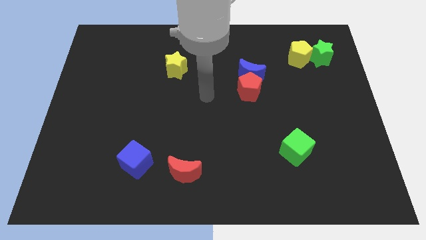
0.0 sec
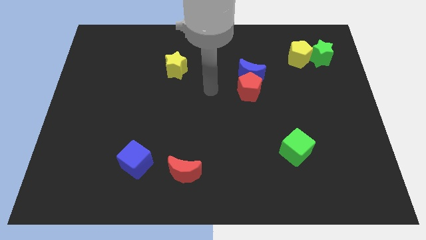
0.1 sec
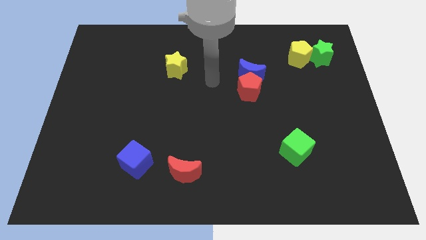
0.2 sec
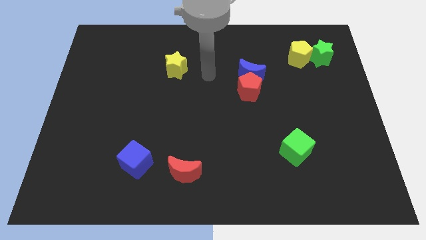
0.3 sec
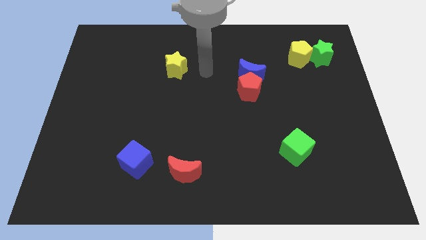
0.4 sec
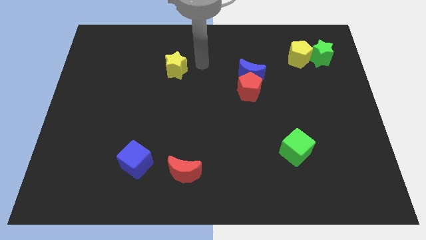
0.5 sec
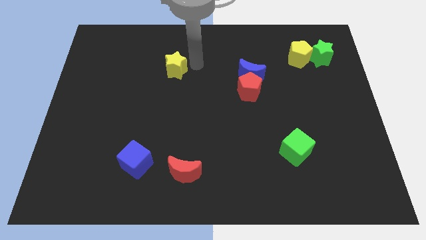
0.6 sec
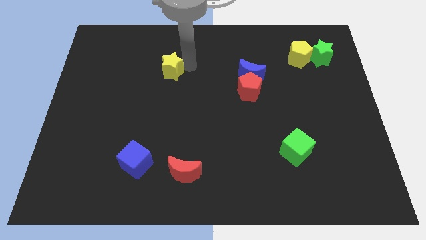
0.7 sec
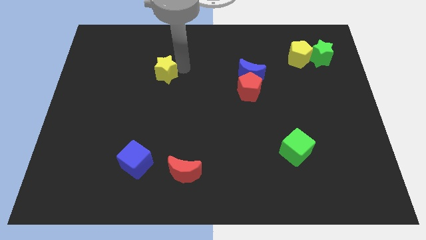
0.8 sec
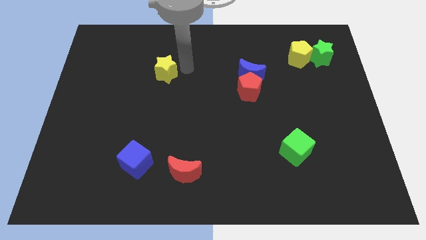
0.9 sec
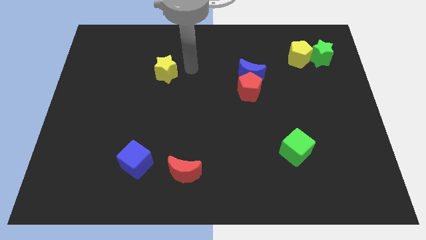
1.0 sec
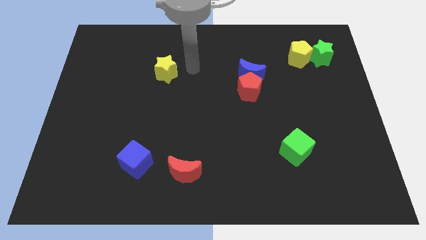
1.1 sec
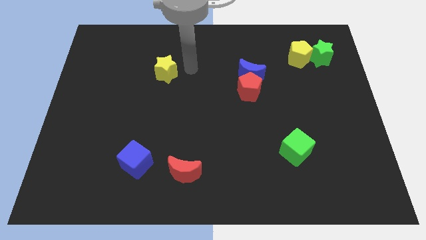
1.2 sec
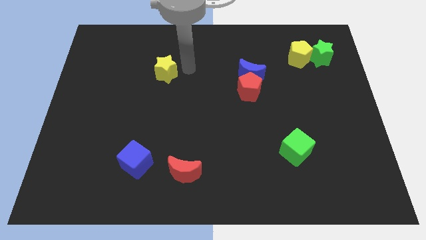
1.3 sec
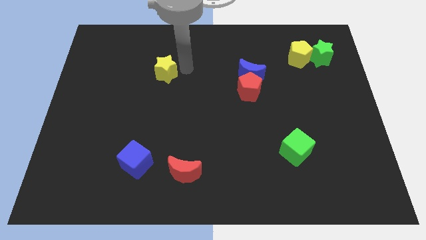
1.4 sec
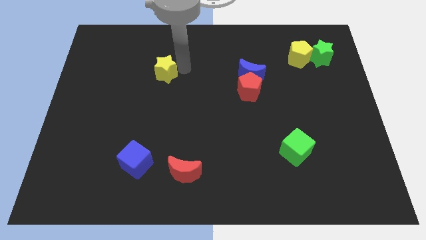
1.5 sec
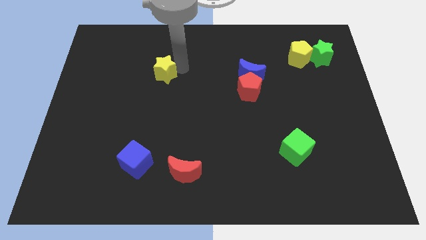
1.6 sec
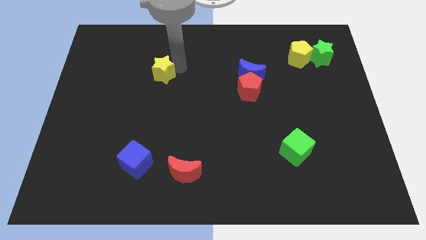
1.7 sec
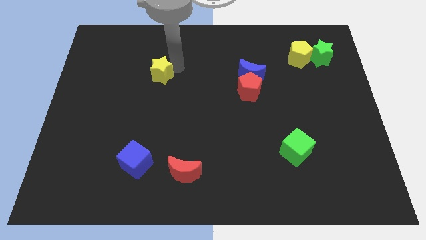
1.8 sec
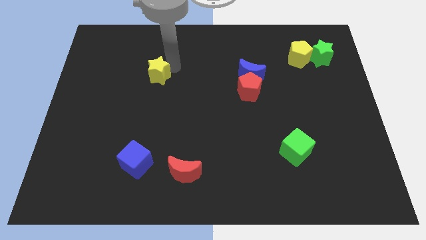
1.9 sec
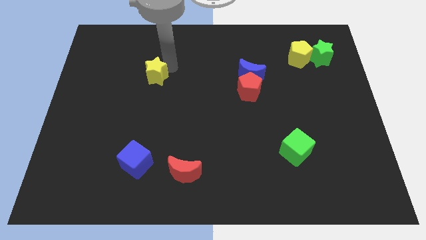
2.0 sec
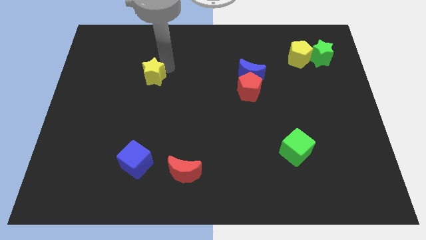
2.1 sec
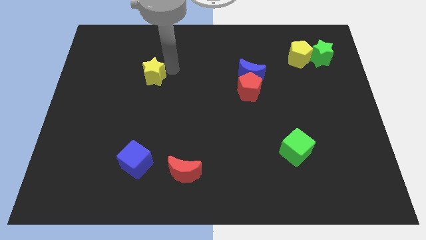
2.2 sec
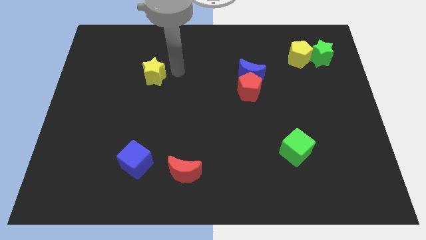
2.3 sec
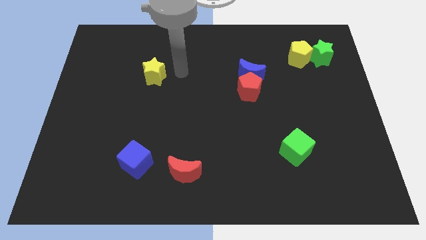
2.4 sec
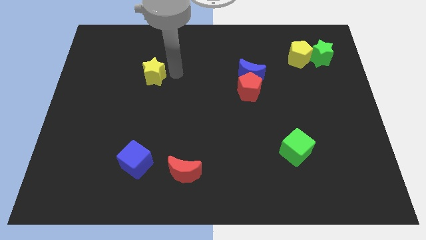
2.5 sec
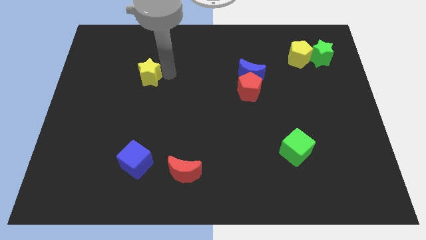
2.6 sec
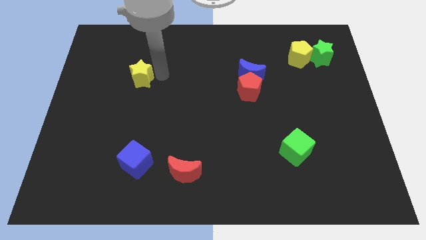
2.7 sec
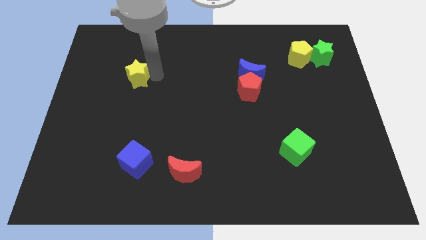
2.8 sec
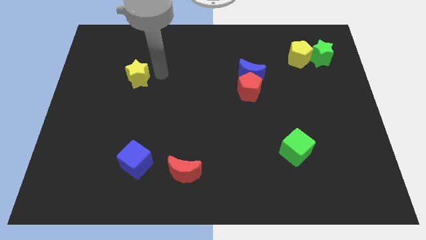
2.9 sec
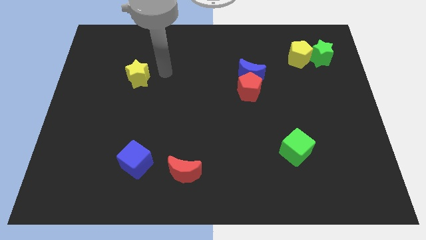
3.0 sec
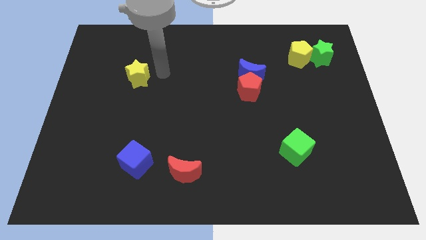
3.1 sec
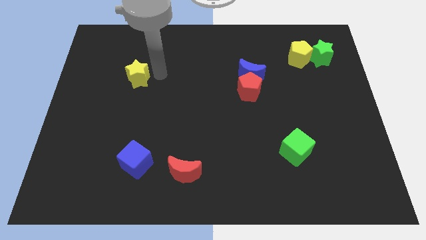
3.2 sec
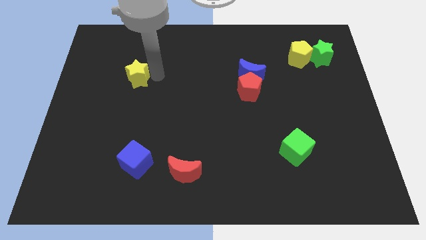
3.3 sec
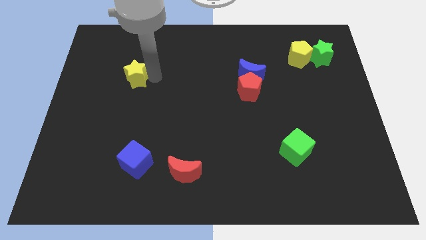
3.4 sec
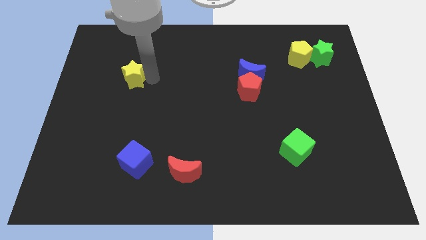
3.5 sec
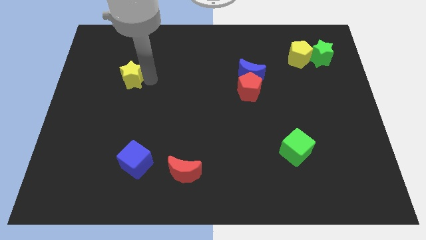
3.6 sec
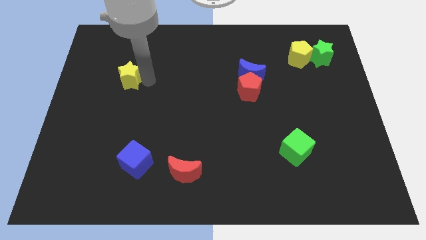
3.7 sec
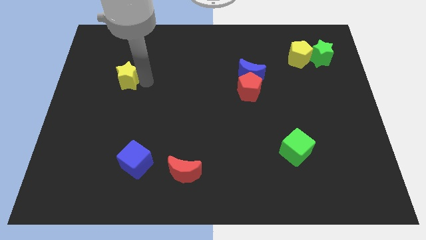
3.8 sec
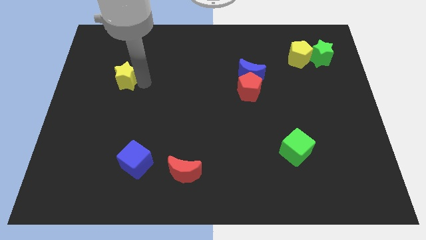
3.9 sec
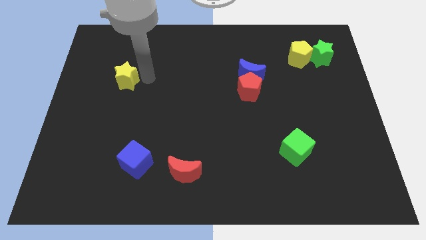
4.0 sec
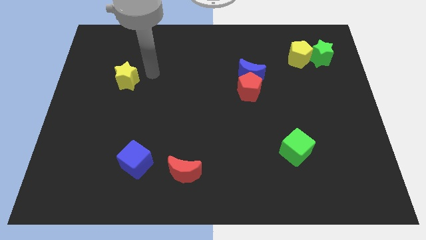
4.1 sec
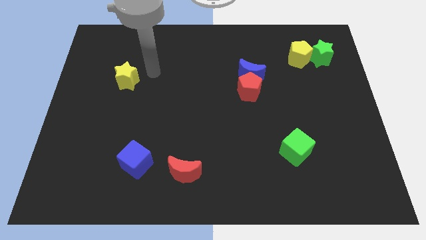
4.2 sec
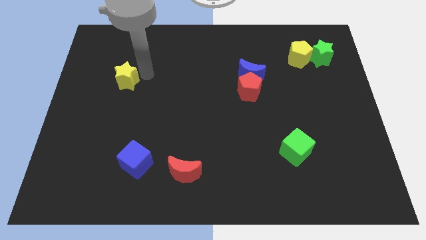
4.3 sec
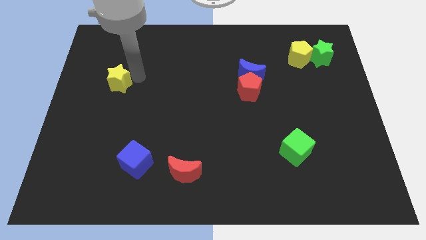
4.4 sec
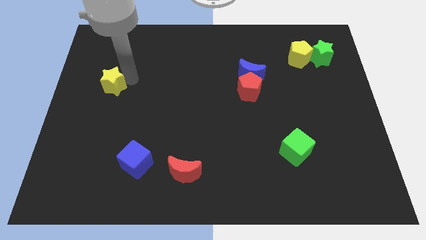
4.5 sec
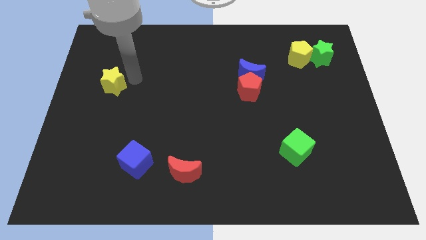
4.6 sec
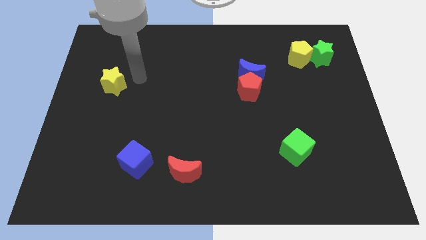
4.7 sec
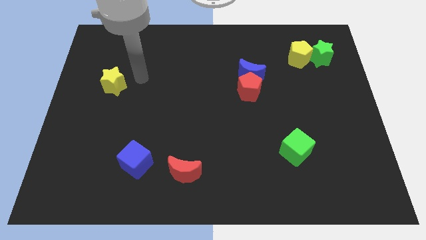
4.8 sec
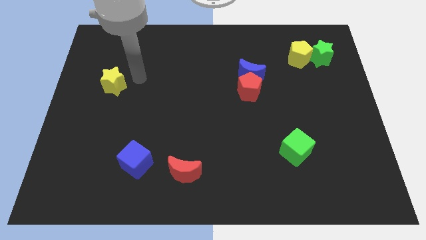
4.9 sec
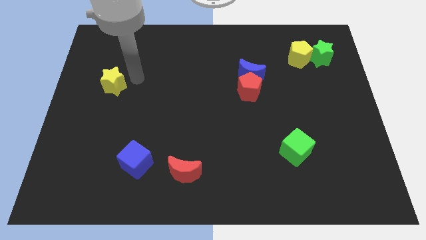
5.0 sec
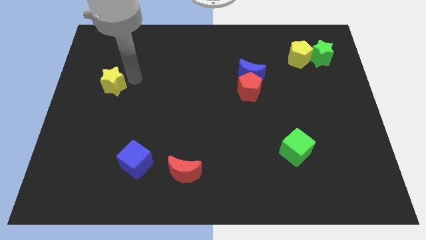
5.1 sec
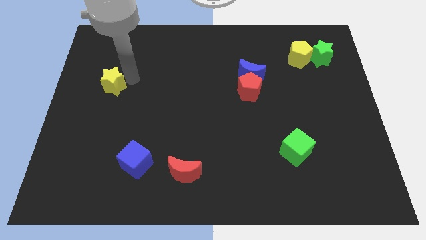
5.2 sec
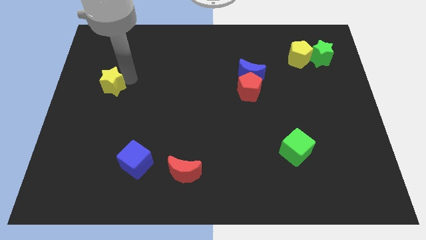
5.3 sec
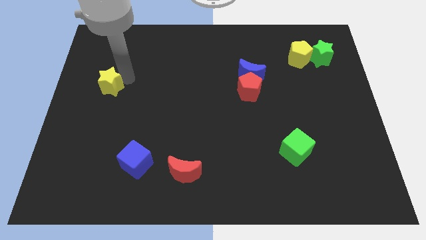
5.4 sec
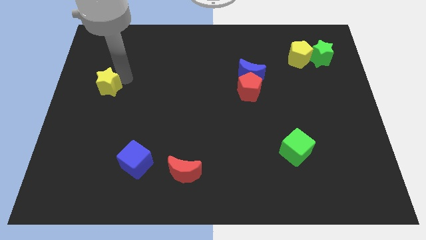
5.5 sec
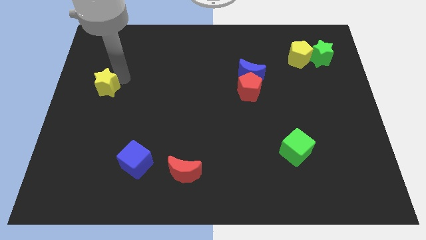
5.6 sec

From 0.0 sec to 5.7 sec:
slide the yellow star to the center left

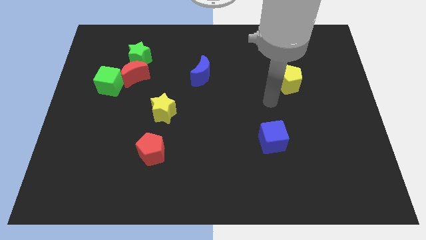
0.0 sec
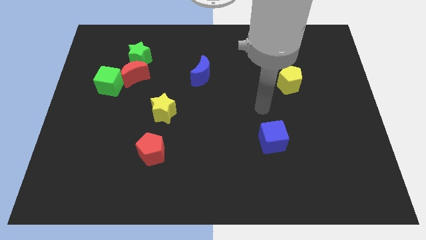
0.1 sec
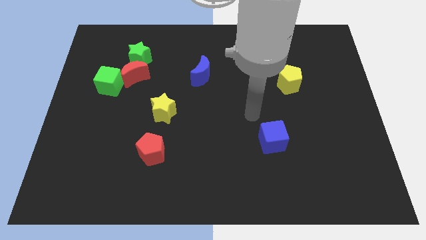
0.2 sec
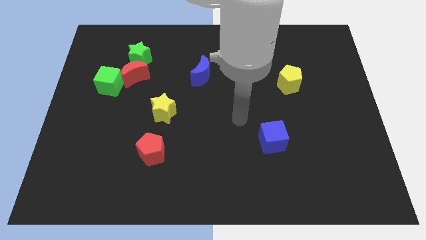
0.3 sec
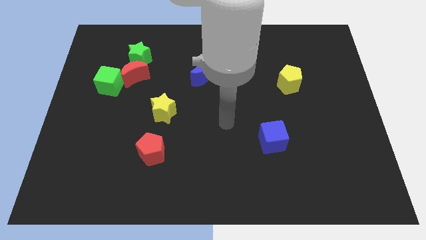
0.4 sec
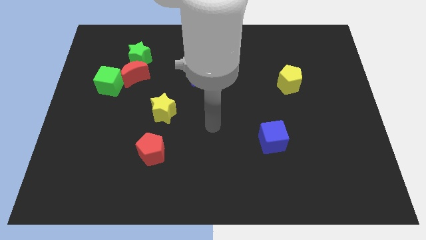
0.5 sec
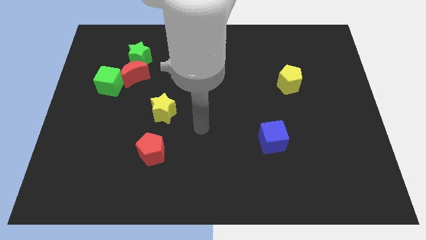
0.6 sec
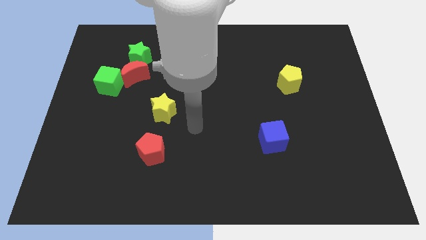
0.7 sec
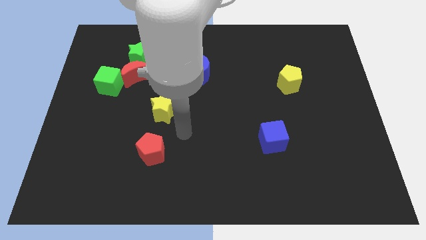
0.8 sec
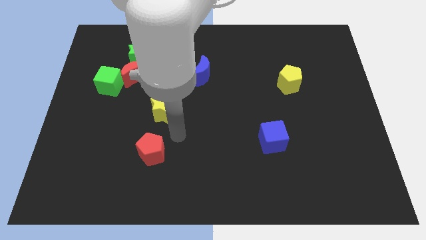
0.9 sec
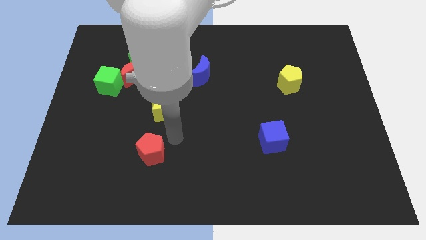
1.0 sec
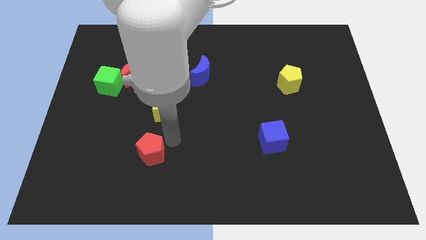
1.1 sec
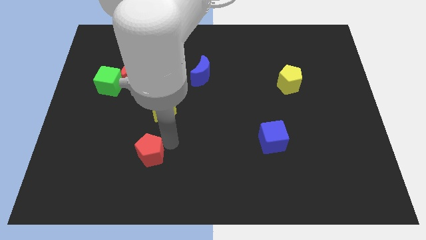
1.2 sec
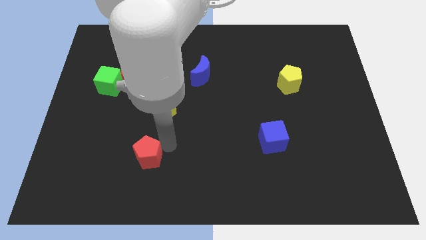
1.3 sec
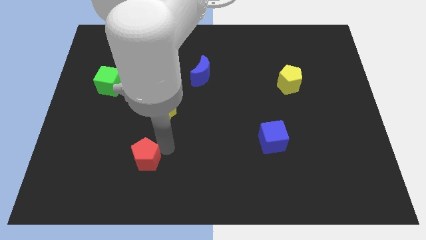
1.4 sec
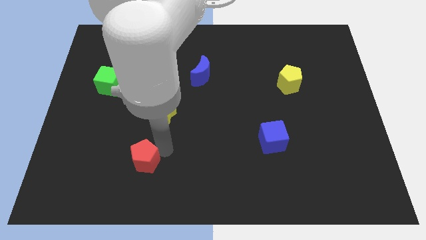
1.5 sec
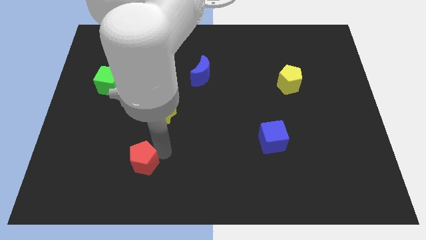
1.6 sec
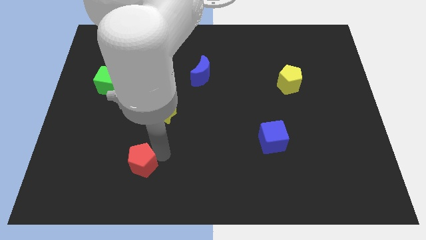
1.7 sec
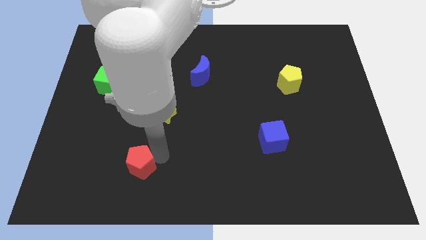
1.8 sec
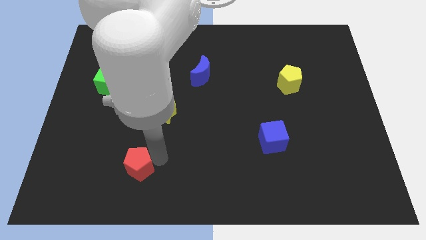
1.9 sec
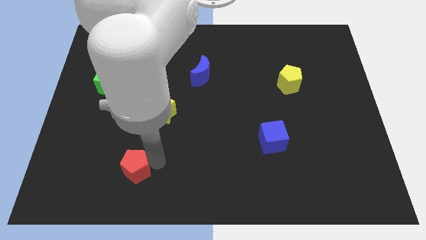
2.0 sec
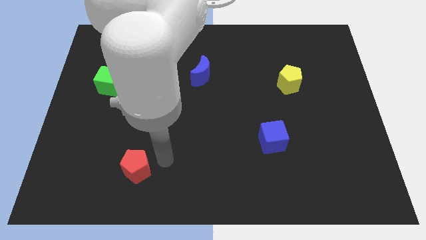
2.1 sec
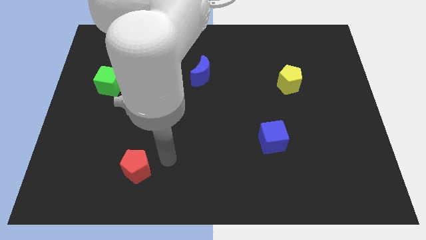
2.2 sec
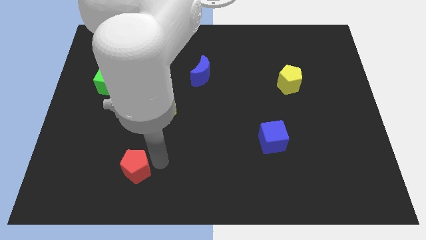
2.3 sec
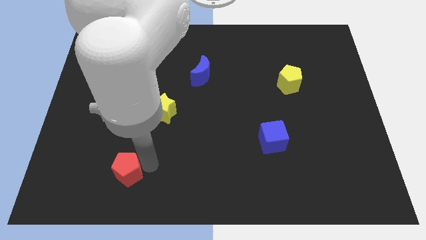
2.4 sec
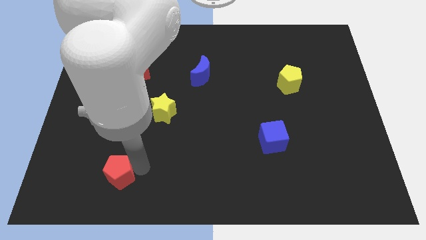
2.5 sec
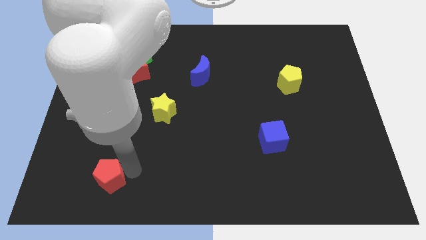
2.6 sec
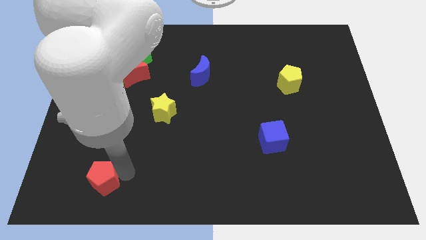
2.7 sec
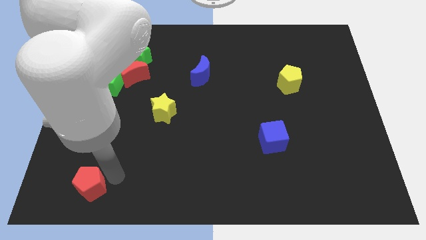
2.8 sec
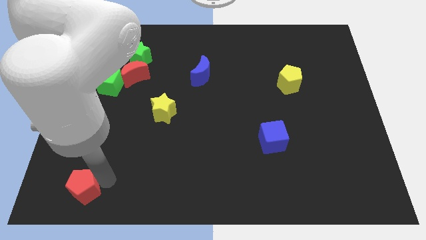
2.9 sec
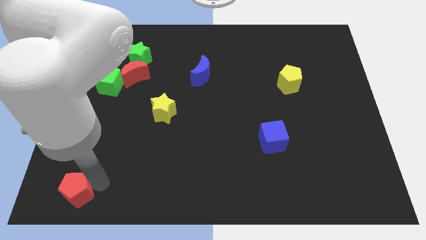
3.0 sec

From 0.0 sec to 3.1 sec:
slide the red pentagon to the bottom left
